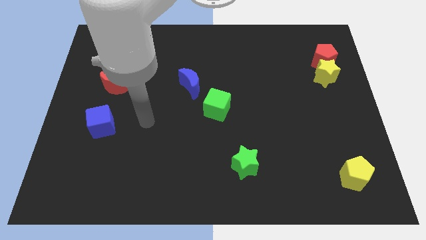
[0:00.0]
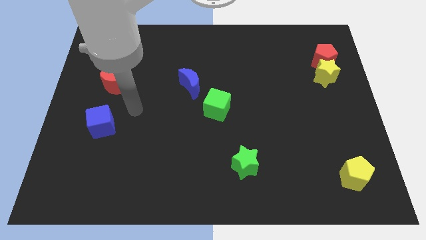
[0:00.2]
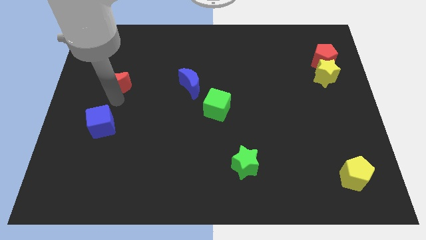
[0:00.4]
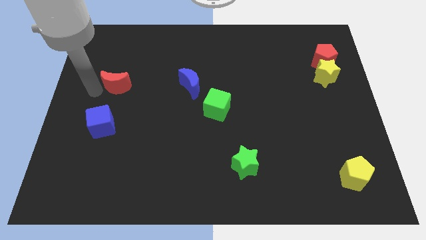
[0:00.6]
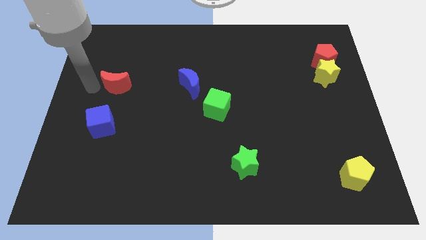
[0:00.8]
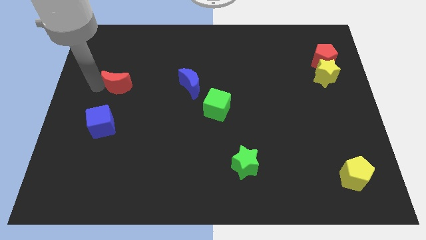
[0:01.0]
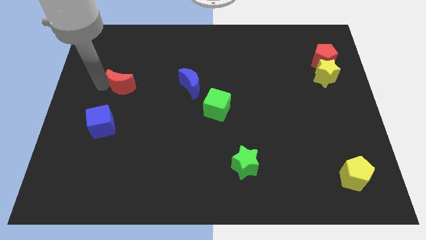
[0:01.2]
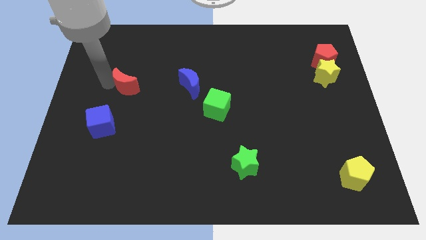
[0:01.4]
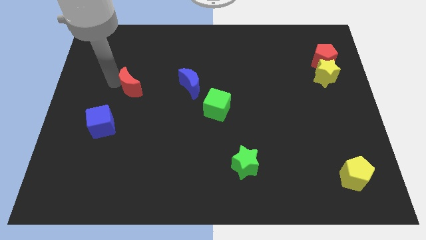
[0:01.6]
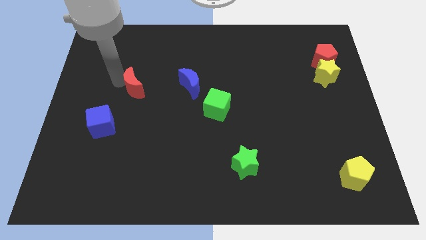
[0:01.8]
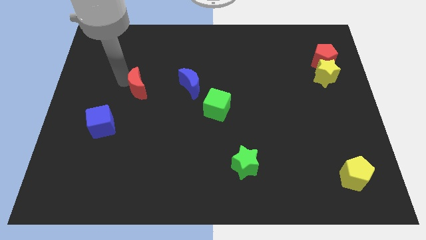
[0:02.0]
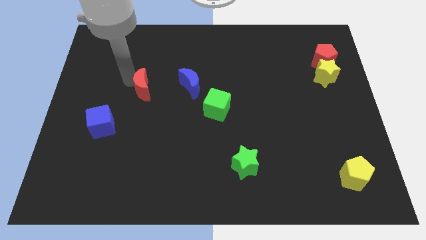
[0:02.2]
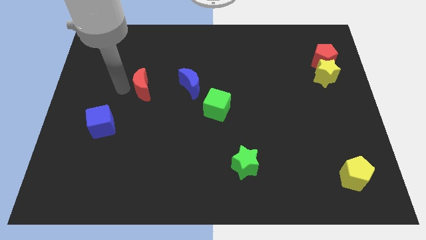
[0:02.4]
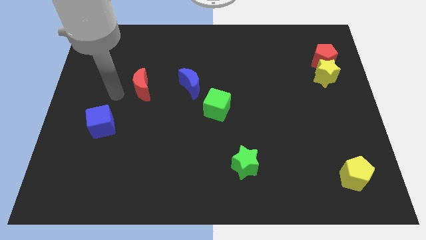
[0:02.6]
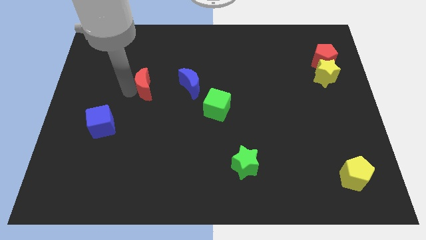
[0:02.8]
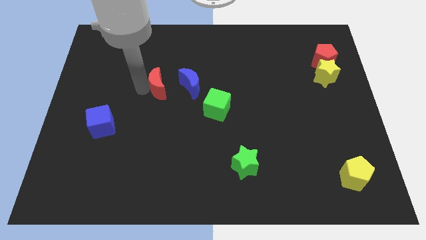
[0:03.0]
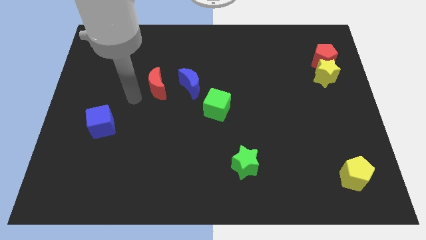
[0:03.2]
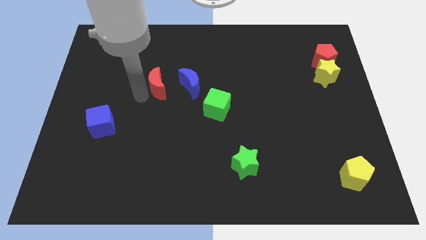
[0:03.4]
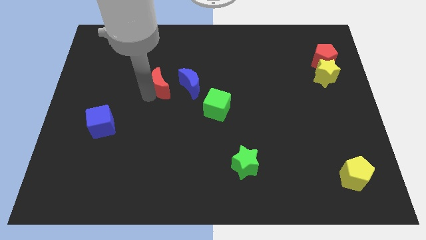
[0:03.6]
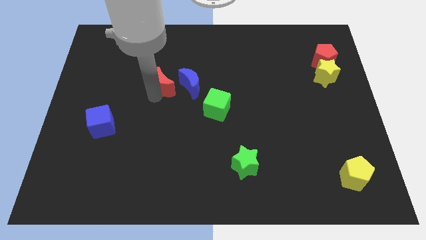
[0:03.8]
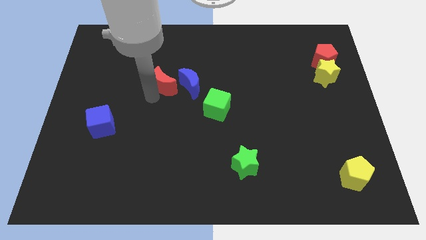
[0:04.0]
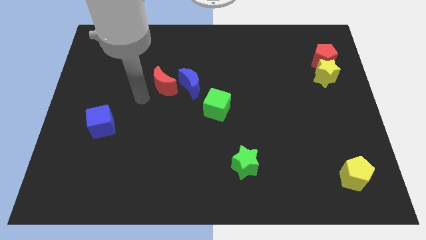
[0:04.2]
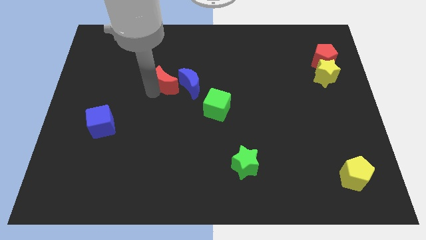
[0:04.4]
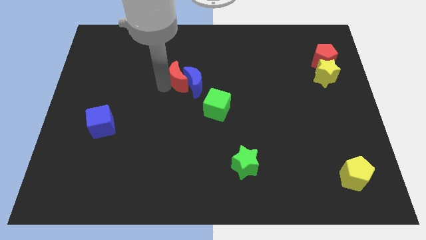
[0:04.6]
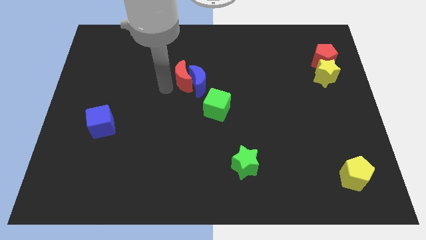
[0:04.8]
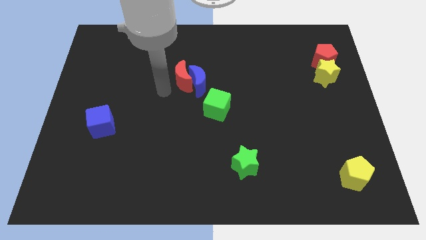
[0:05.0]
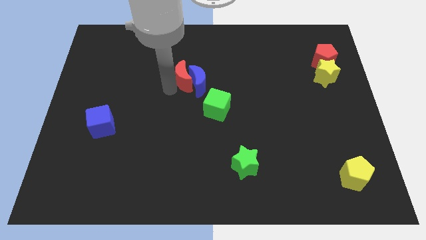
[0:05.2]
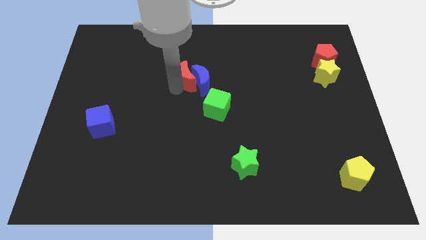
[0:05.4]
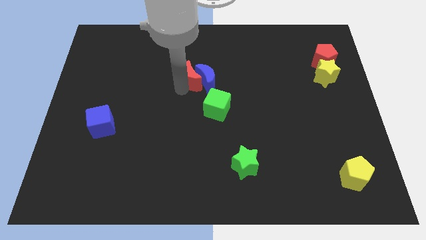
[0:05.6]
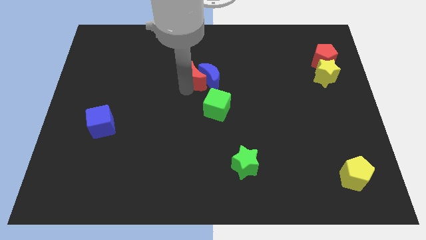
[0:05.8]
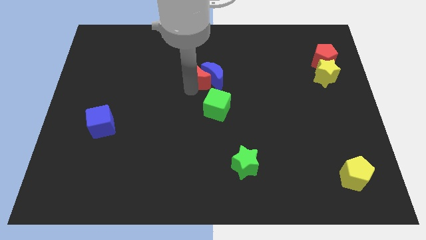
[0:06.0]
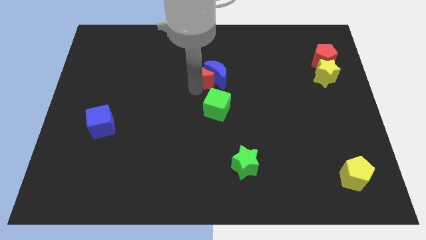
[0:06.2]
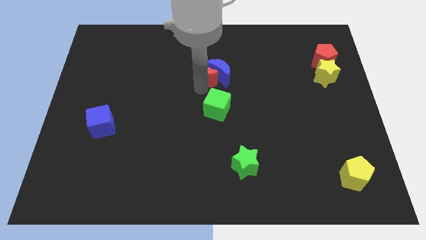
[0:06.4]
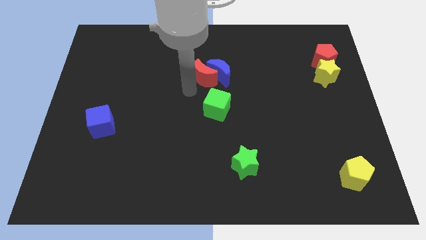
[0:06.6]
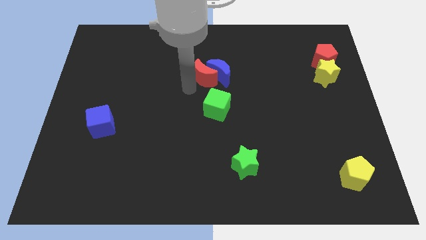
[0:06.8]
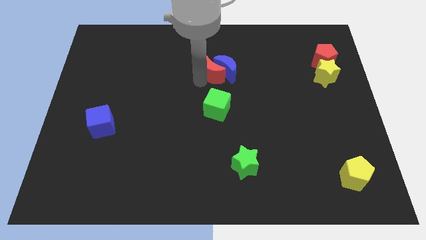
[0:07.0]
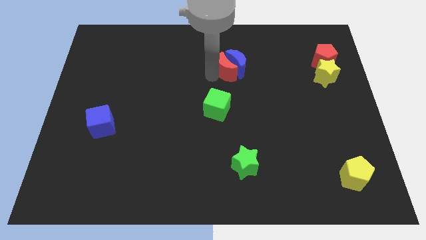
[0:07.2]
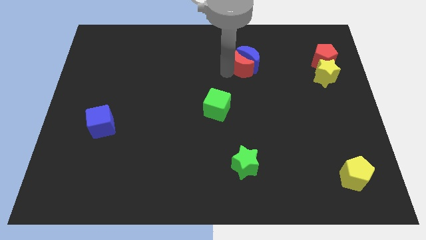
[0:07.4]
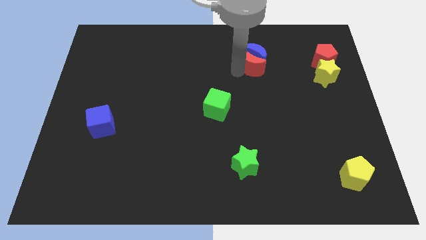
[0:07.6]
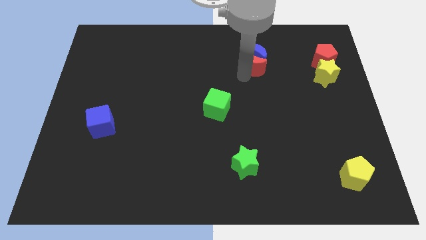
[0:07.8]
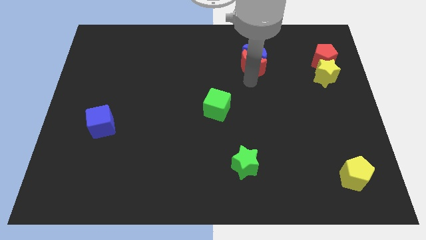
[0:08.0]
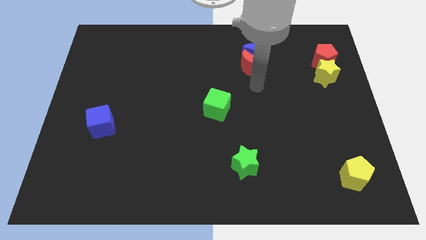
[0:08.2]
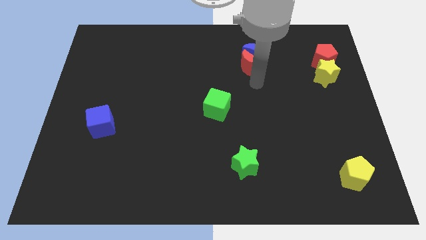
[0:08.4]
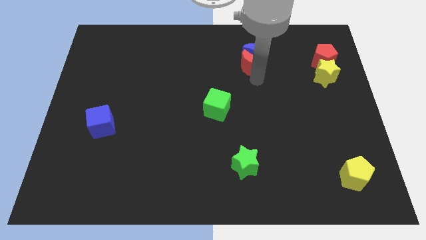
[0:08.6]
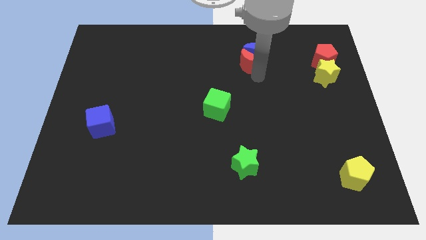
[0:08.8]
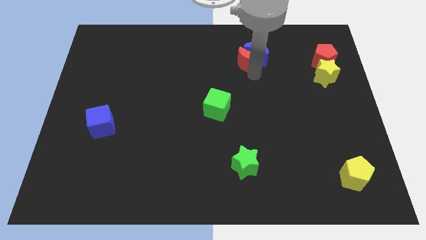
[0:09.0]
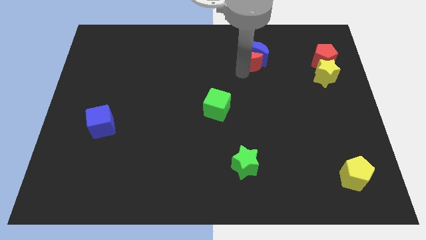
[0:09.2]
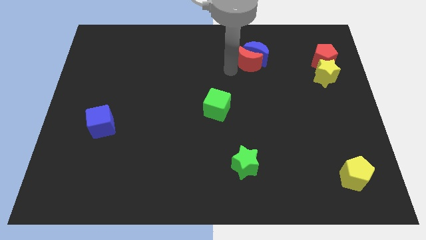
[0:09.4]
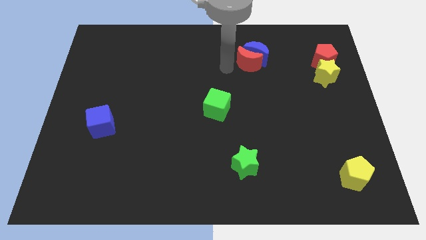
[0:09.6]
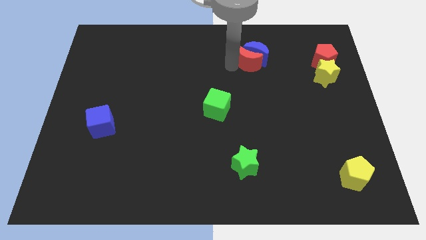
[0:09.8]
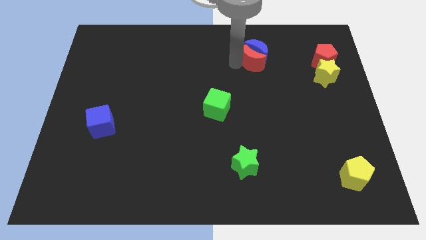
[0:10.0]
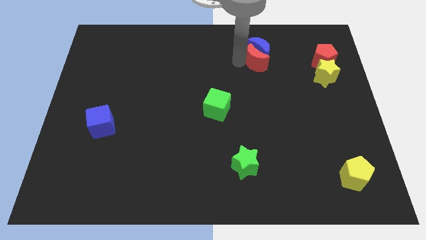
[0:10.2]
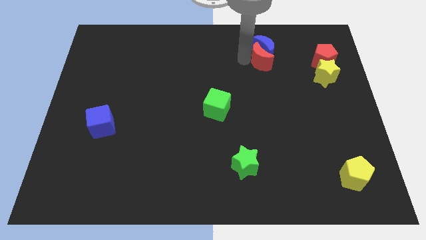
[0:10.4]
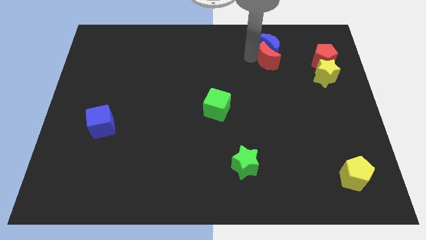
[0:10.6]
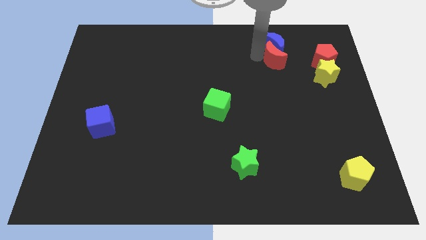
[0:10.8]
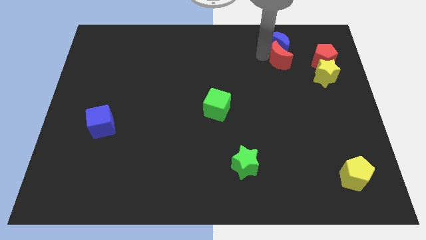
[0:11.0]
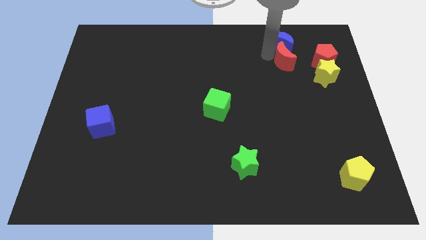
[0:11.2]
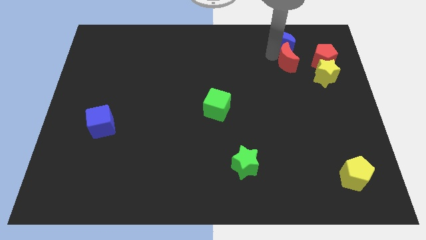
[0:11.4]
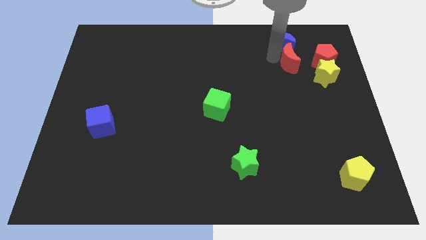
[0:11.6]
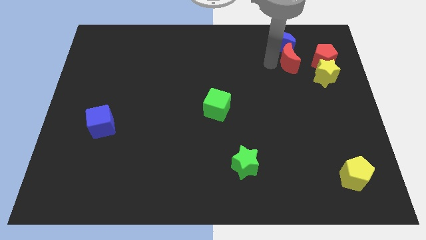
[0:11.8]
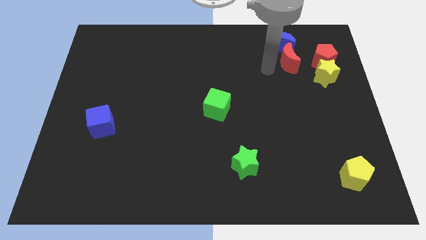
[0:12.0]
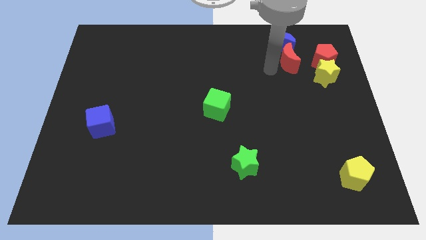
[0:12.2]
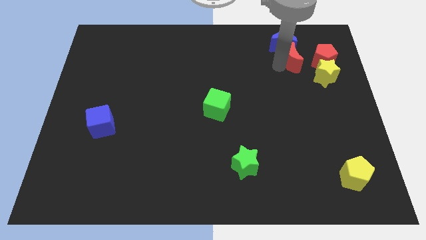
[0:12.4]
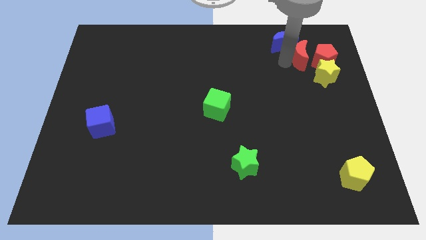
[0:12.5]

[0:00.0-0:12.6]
move the red moon next to the red pentagon

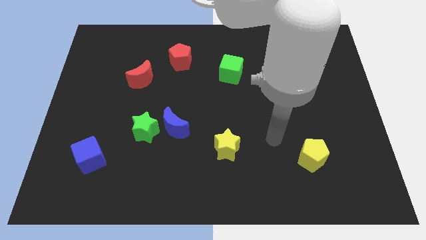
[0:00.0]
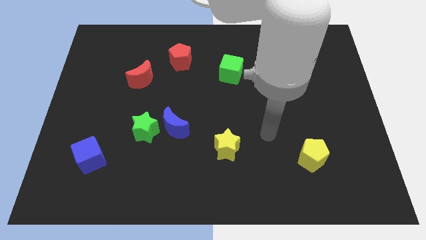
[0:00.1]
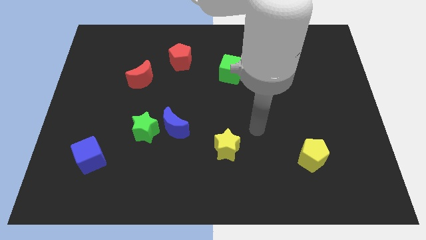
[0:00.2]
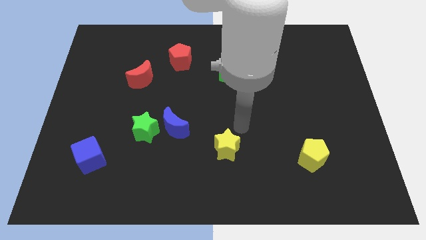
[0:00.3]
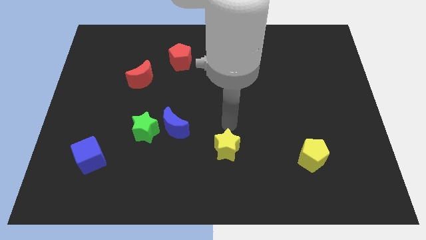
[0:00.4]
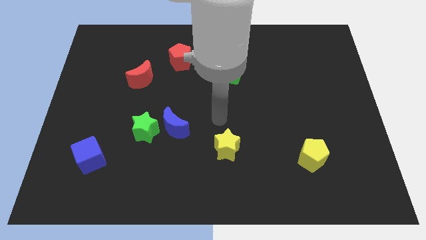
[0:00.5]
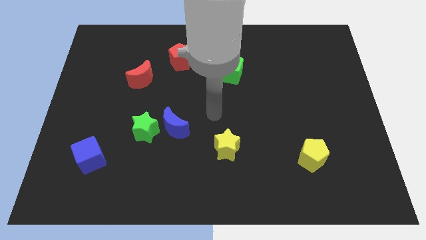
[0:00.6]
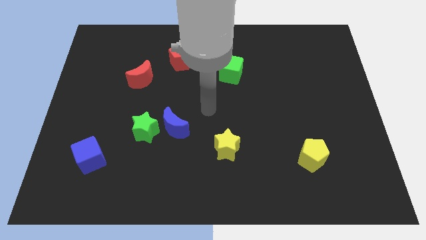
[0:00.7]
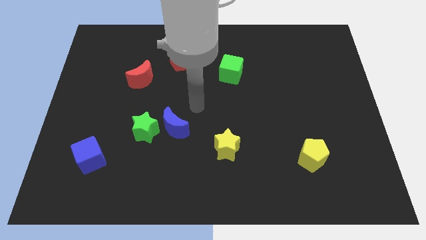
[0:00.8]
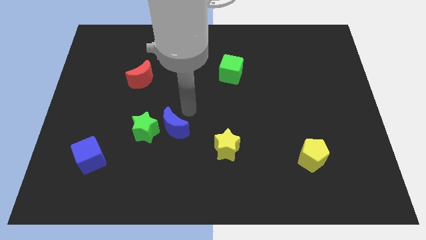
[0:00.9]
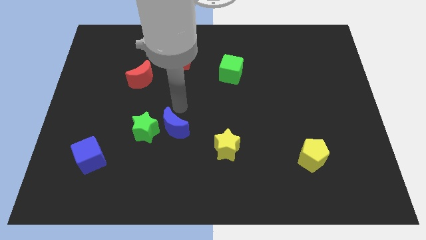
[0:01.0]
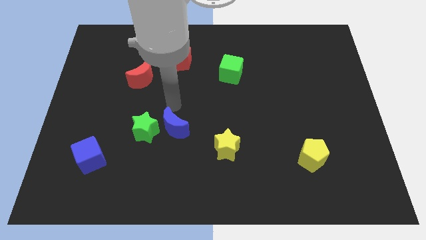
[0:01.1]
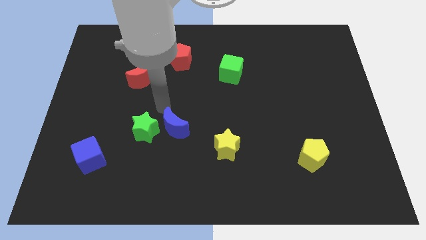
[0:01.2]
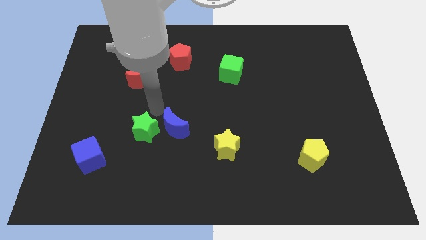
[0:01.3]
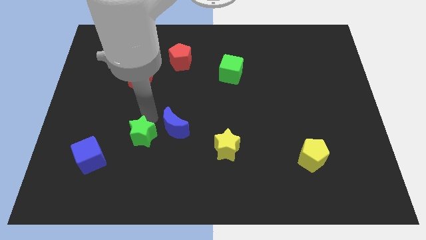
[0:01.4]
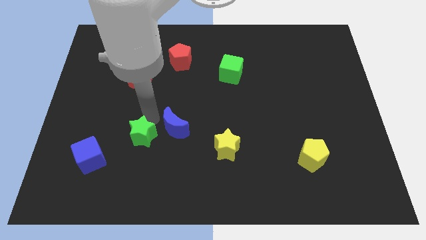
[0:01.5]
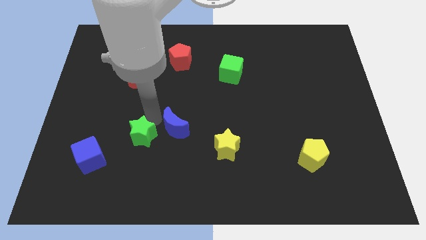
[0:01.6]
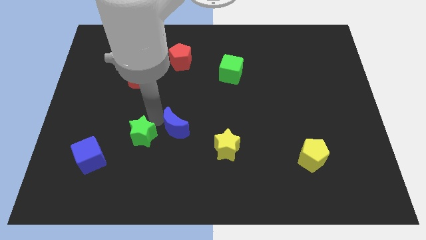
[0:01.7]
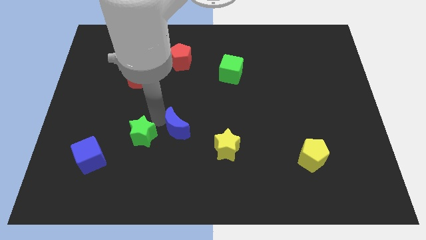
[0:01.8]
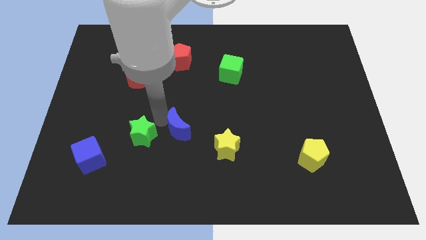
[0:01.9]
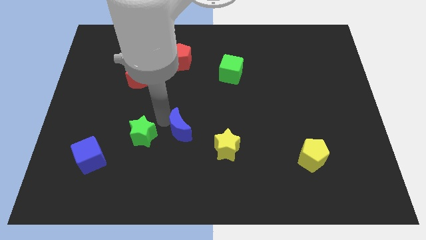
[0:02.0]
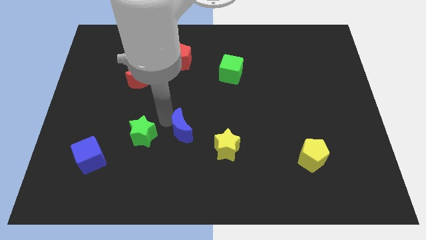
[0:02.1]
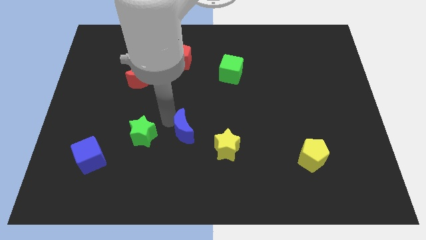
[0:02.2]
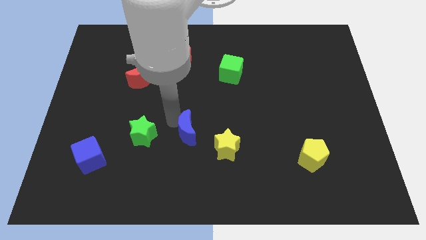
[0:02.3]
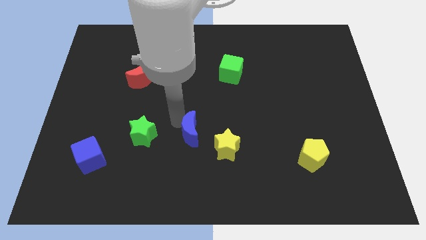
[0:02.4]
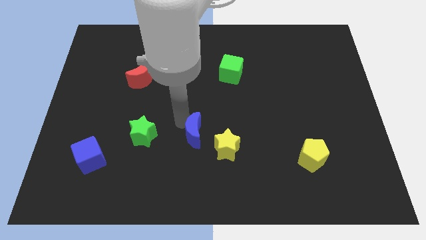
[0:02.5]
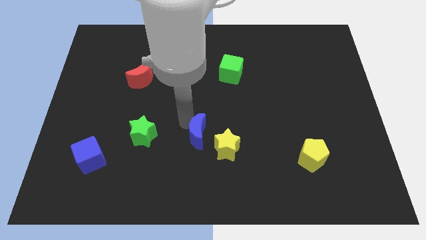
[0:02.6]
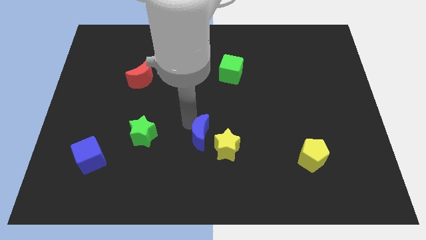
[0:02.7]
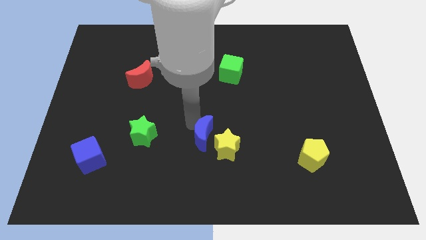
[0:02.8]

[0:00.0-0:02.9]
put the blue moon to the yellow star
